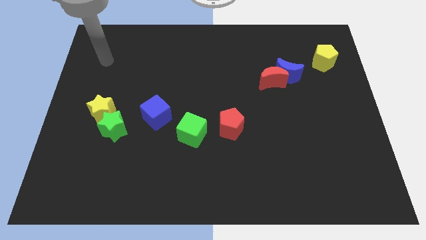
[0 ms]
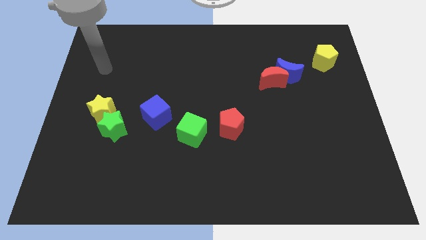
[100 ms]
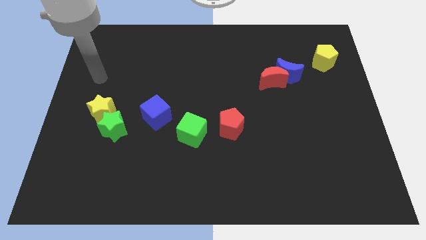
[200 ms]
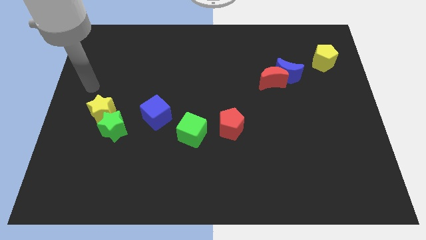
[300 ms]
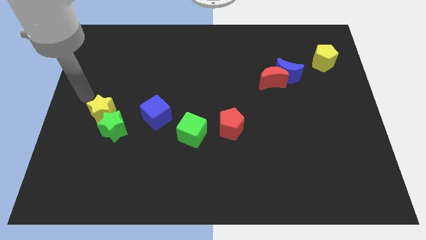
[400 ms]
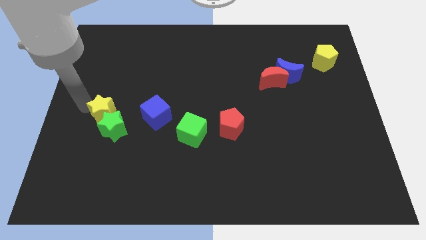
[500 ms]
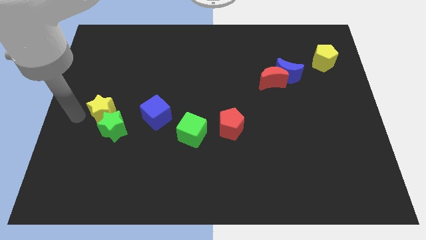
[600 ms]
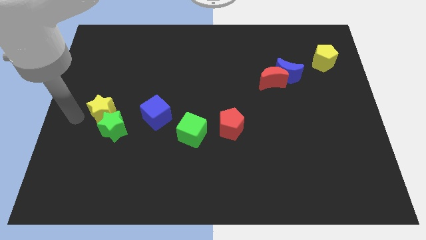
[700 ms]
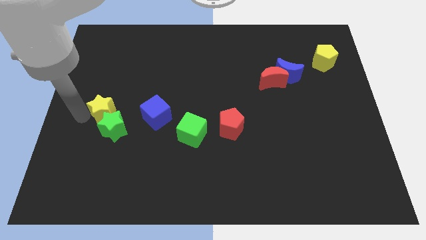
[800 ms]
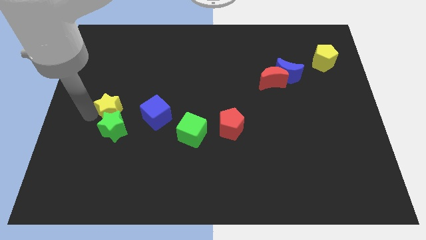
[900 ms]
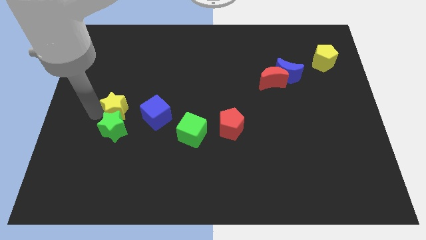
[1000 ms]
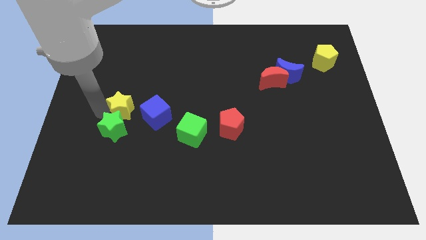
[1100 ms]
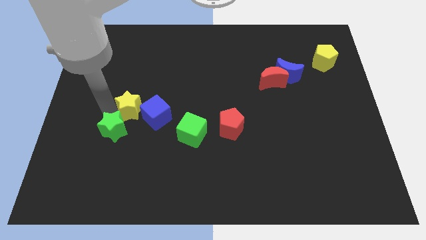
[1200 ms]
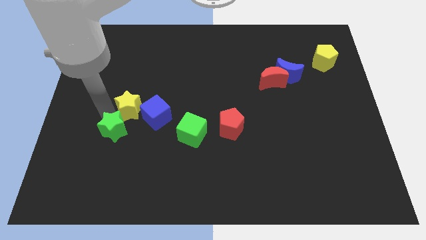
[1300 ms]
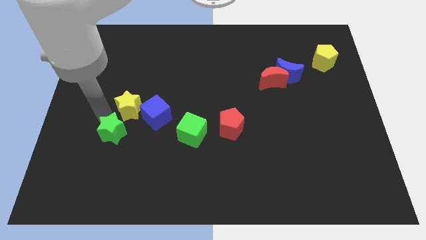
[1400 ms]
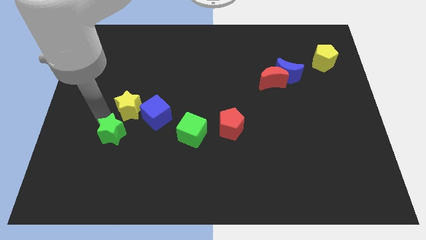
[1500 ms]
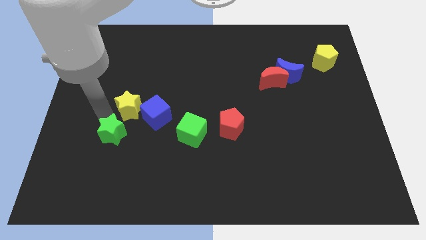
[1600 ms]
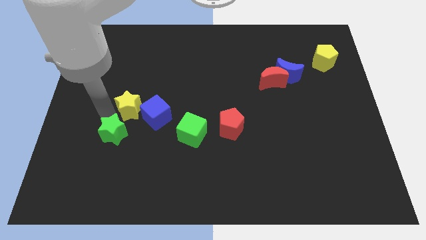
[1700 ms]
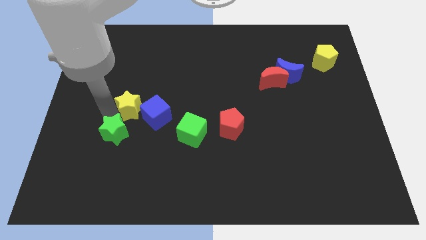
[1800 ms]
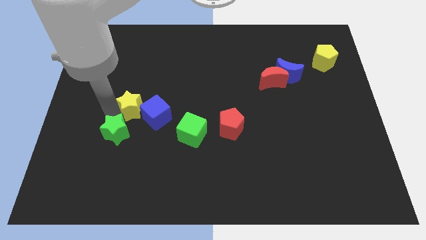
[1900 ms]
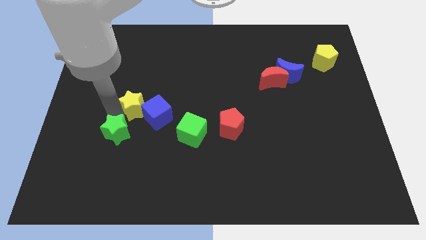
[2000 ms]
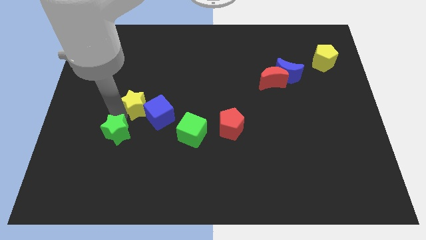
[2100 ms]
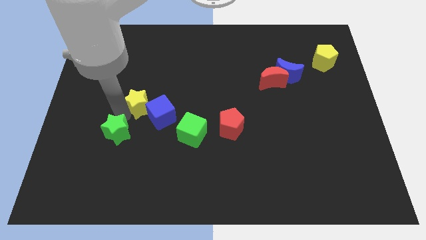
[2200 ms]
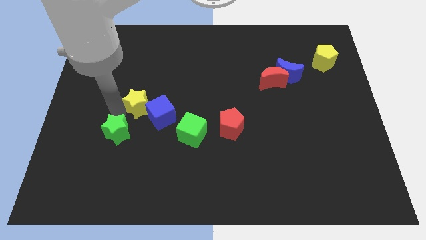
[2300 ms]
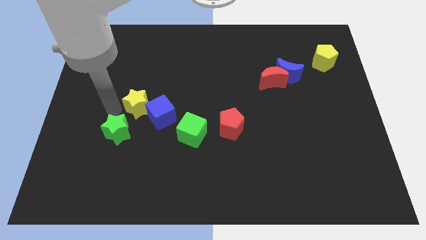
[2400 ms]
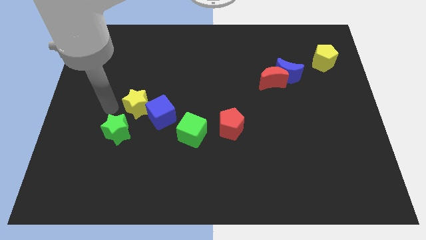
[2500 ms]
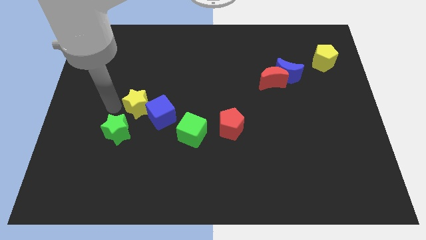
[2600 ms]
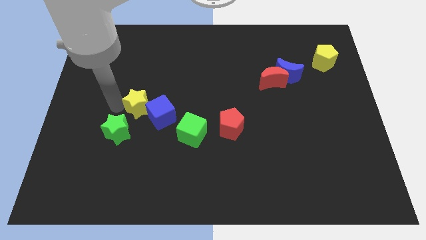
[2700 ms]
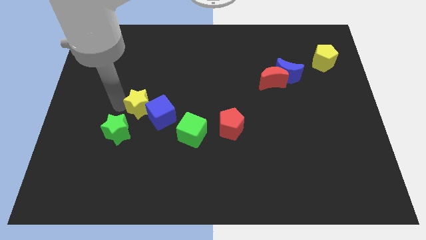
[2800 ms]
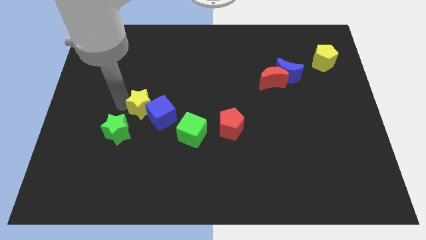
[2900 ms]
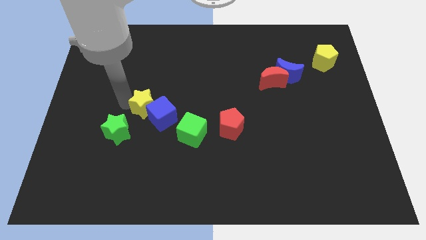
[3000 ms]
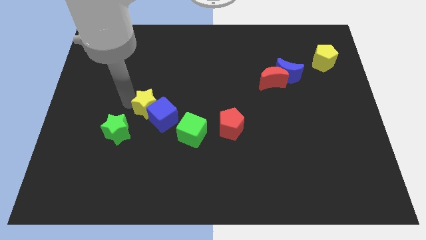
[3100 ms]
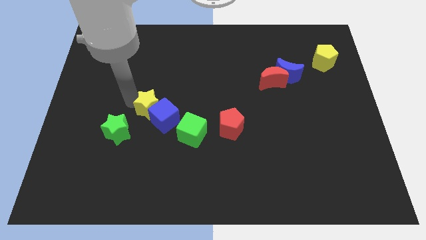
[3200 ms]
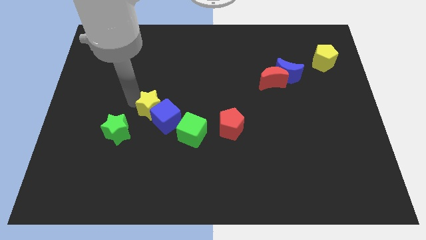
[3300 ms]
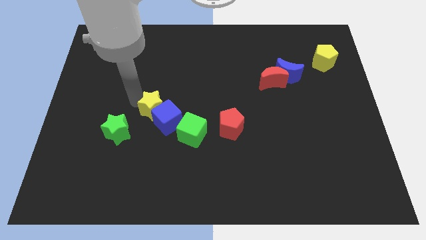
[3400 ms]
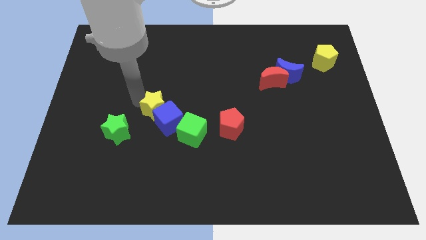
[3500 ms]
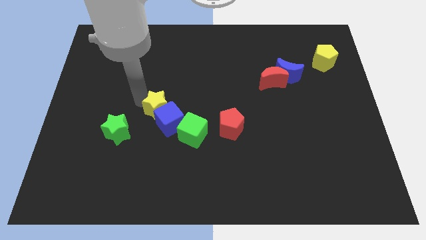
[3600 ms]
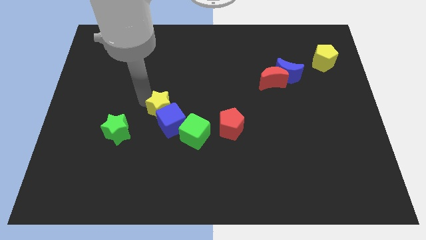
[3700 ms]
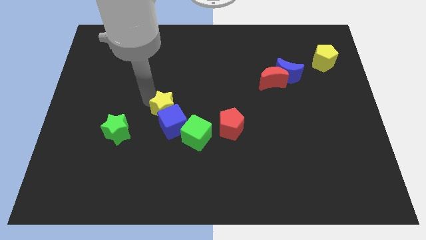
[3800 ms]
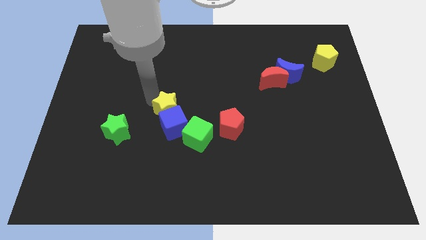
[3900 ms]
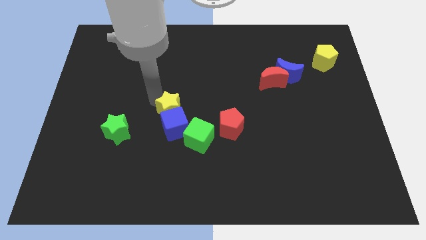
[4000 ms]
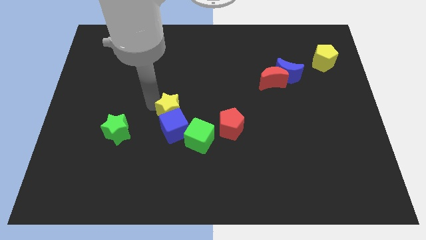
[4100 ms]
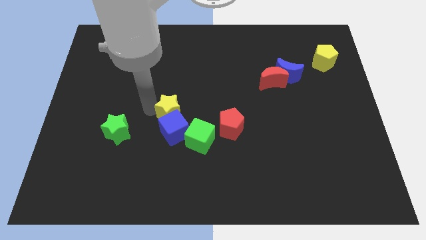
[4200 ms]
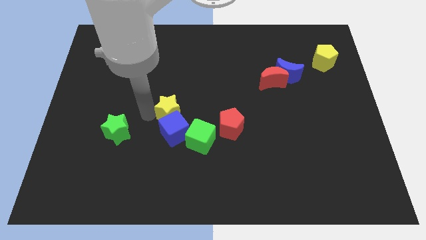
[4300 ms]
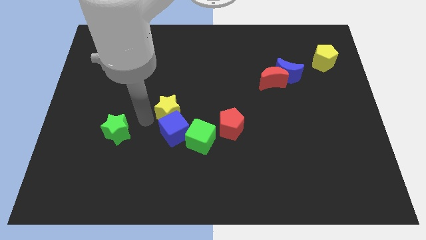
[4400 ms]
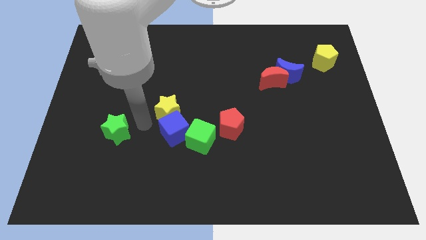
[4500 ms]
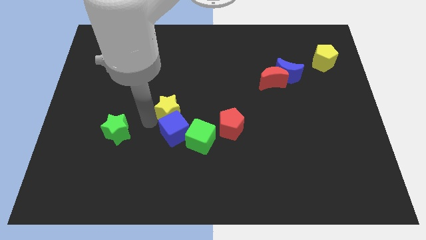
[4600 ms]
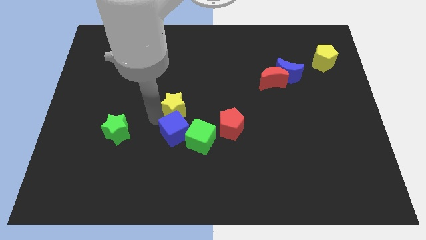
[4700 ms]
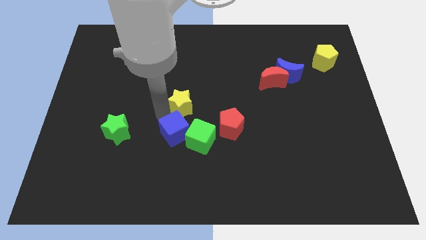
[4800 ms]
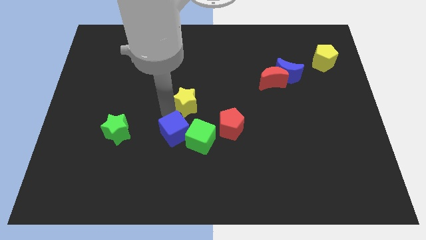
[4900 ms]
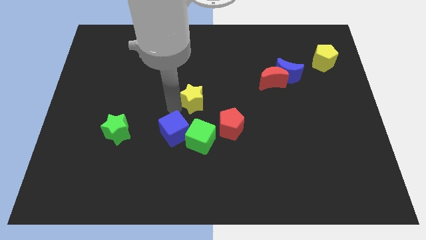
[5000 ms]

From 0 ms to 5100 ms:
push the yellow star to the right

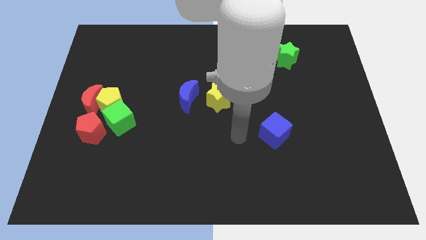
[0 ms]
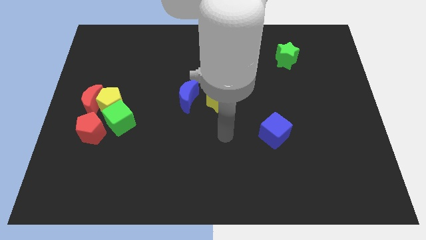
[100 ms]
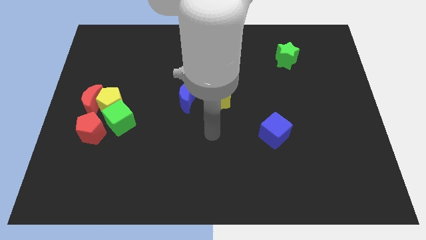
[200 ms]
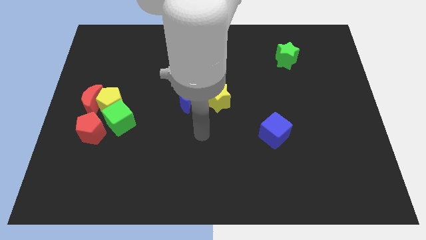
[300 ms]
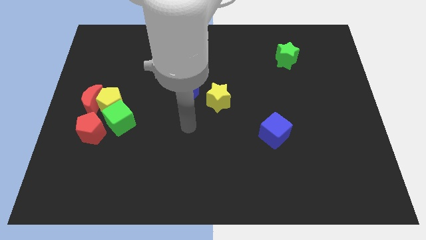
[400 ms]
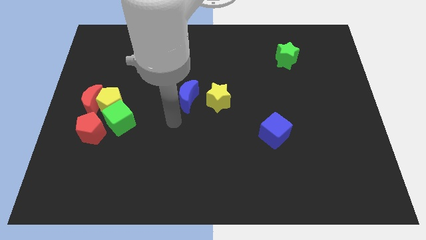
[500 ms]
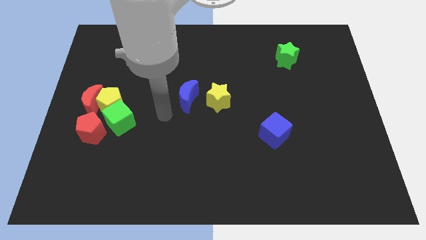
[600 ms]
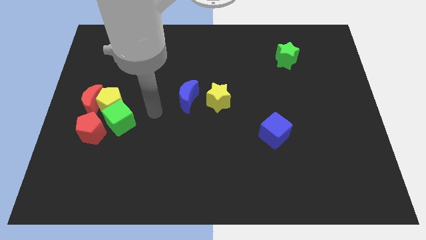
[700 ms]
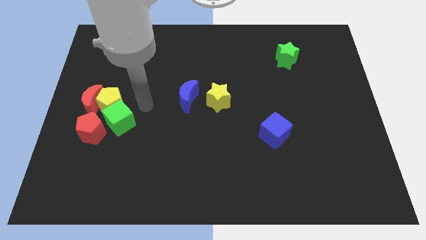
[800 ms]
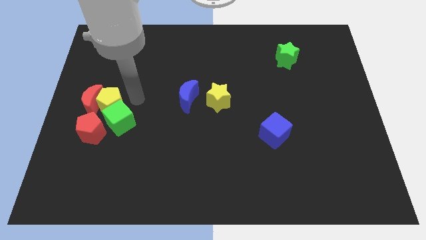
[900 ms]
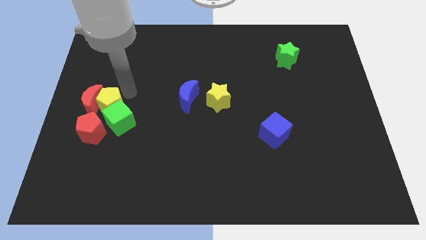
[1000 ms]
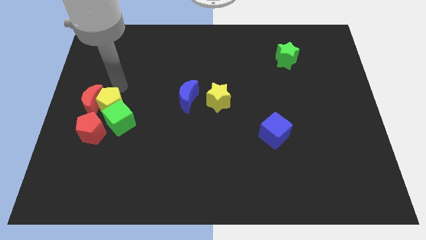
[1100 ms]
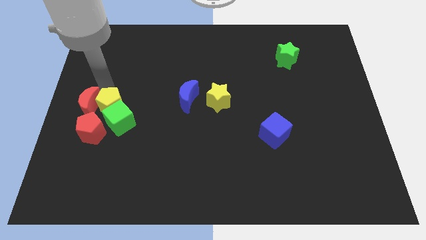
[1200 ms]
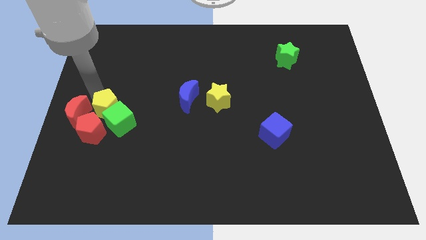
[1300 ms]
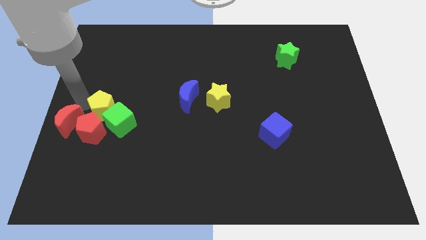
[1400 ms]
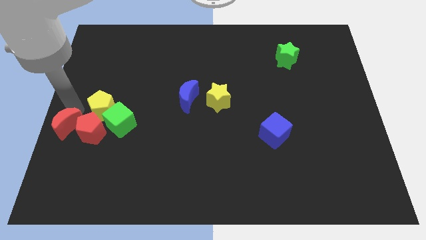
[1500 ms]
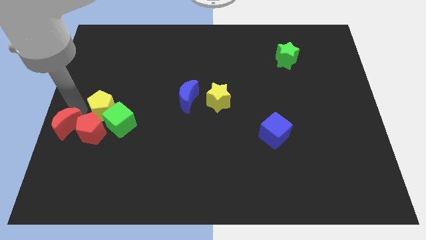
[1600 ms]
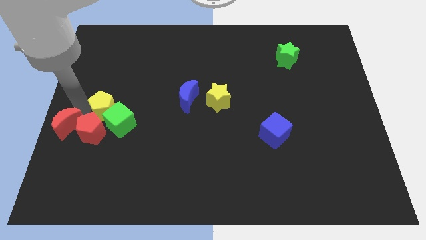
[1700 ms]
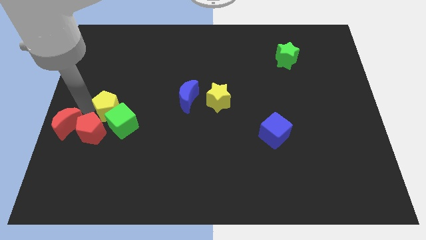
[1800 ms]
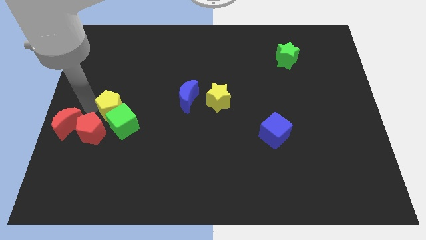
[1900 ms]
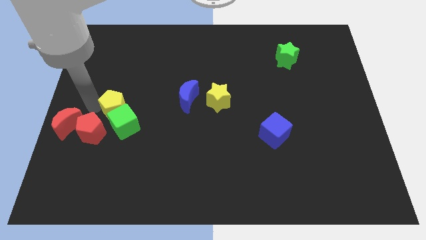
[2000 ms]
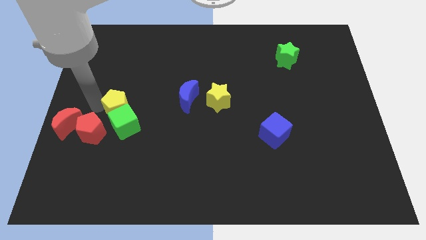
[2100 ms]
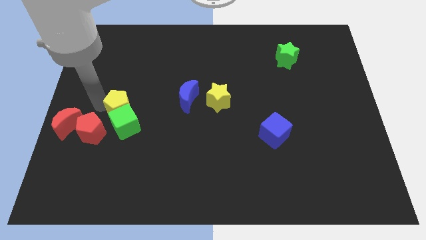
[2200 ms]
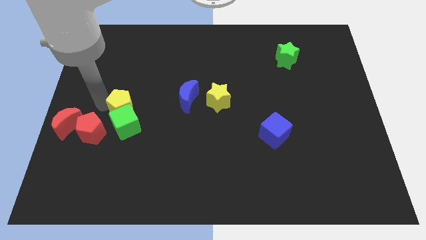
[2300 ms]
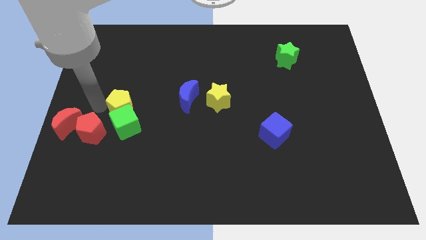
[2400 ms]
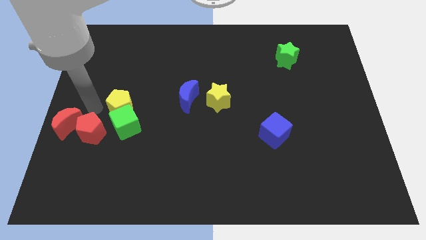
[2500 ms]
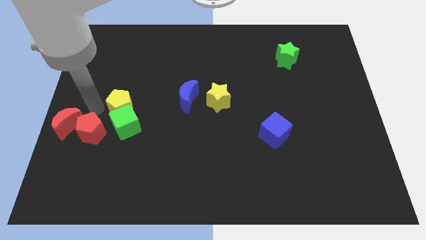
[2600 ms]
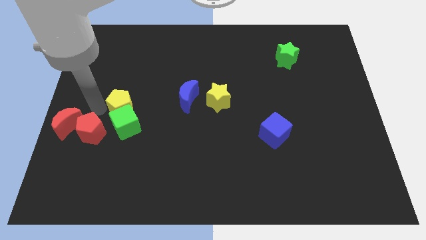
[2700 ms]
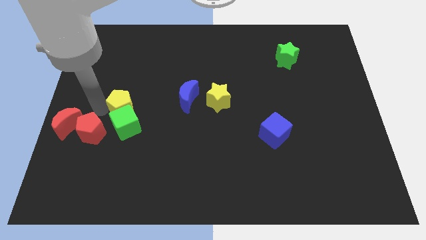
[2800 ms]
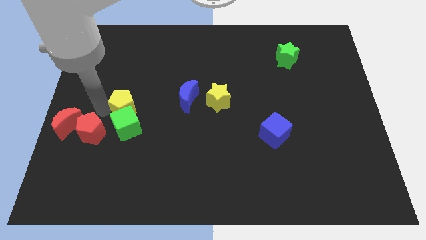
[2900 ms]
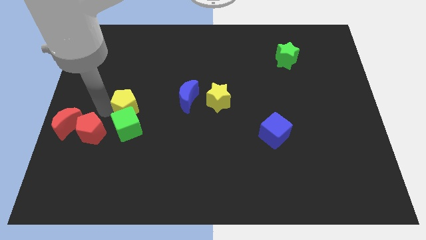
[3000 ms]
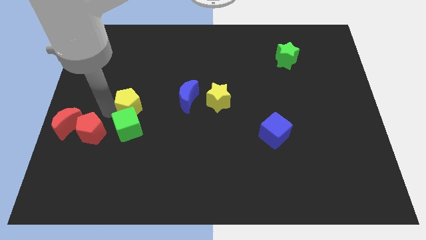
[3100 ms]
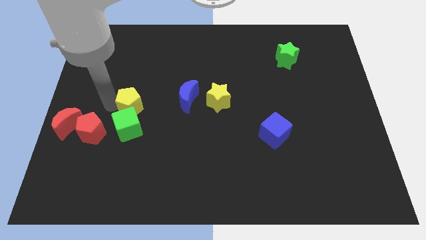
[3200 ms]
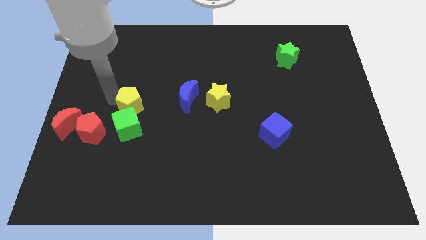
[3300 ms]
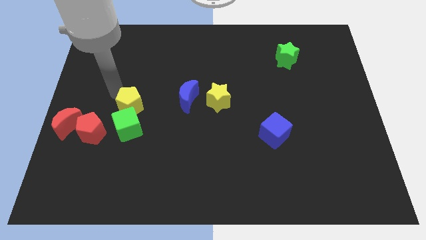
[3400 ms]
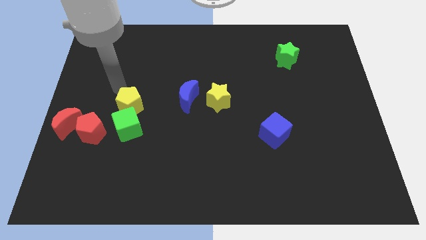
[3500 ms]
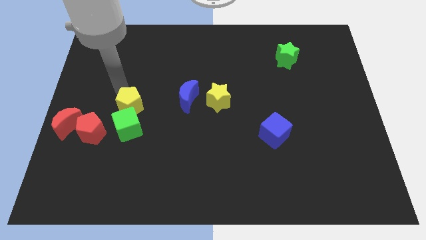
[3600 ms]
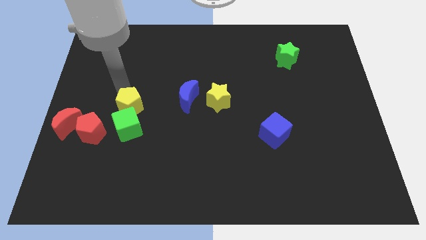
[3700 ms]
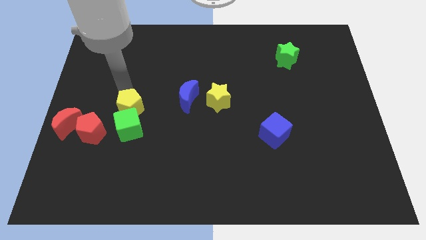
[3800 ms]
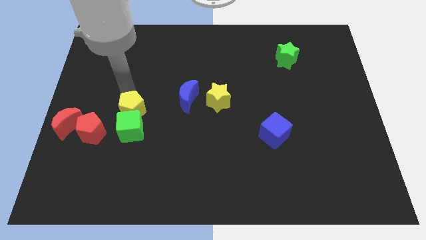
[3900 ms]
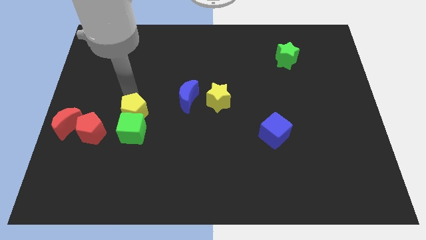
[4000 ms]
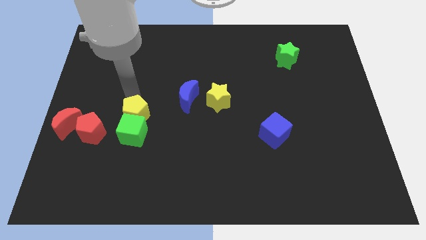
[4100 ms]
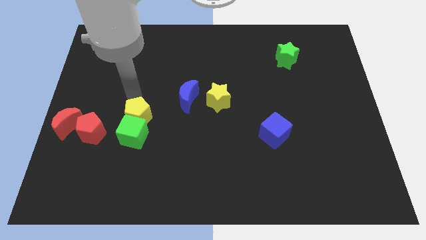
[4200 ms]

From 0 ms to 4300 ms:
push the yellow pentagon a bit diagonally down and right
